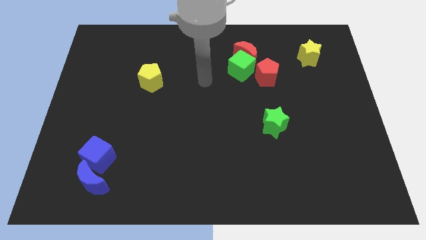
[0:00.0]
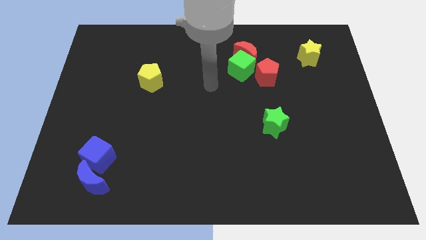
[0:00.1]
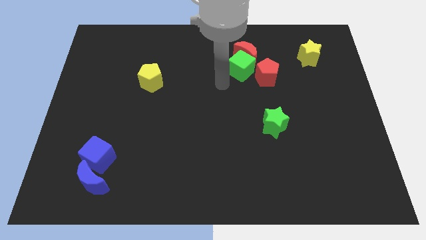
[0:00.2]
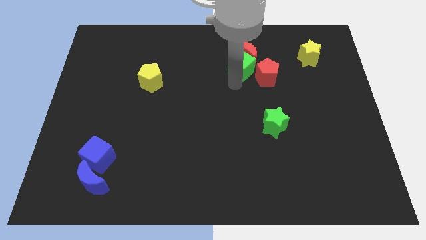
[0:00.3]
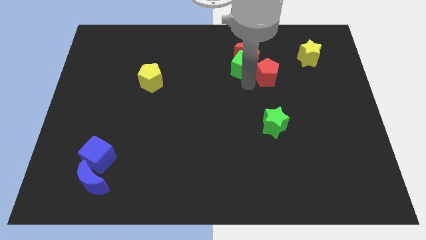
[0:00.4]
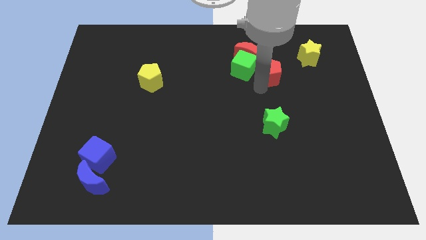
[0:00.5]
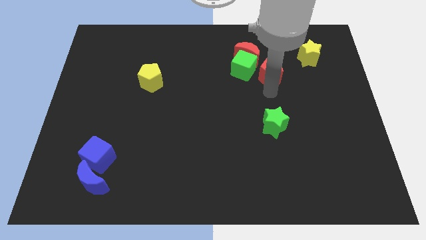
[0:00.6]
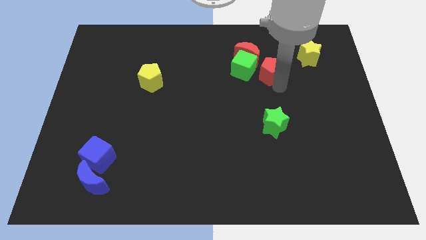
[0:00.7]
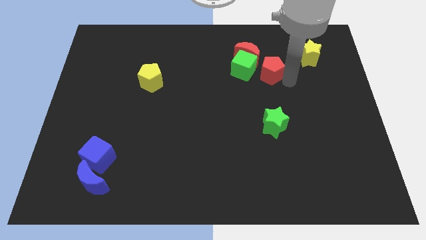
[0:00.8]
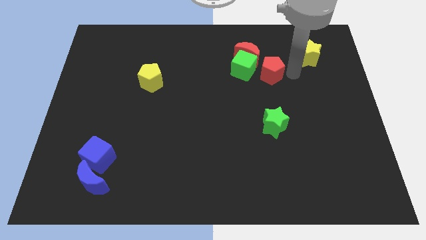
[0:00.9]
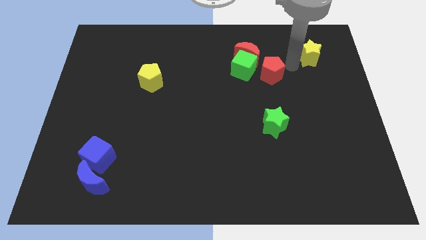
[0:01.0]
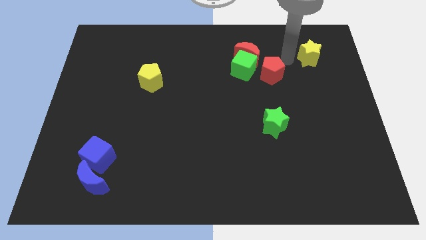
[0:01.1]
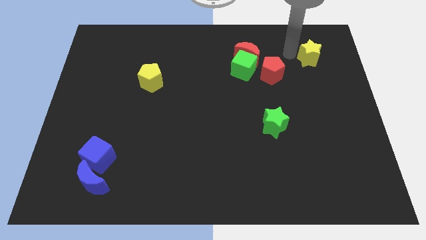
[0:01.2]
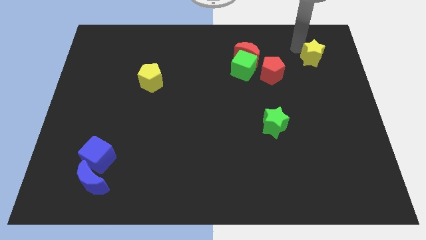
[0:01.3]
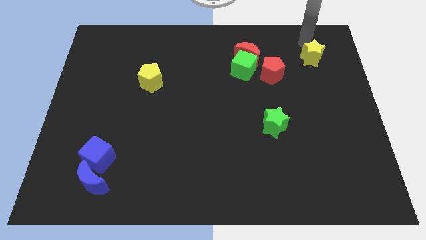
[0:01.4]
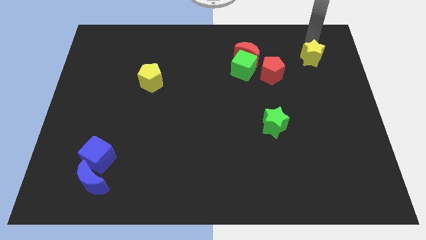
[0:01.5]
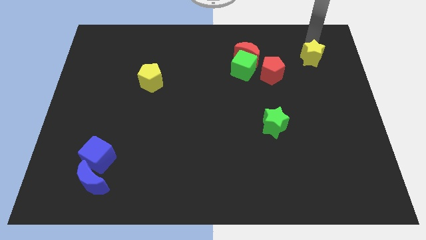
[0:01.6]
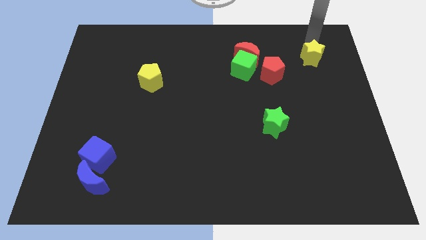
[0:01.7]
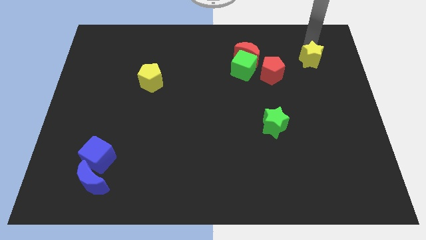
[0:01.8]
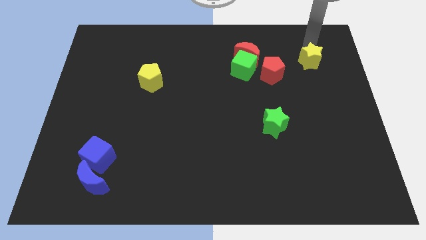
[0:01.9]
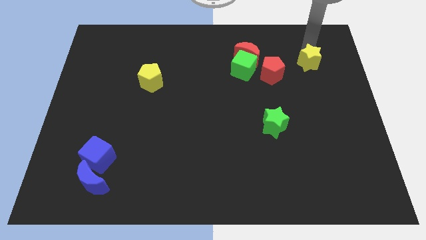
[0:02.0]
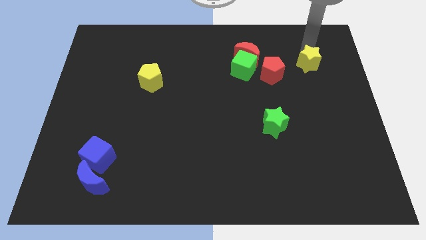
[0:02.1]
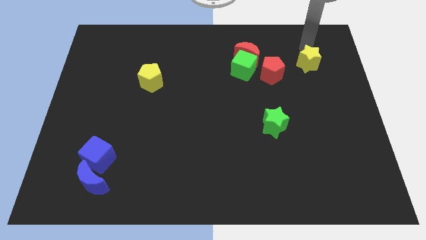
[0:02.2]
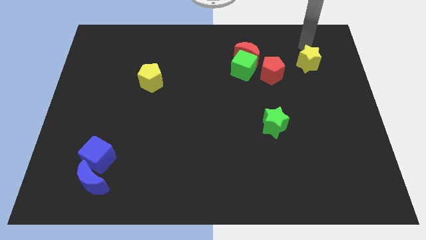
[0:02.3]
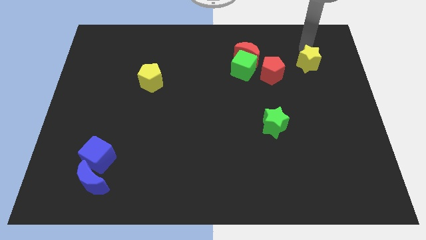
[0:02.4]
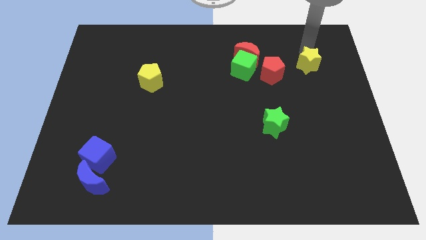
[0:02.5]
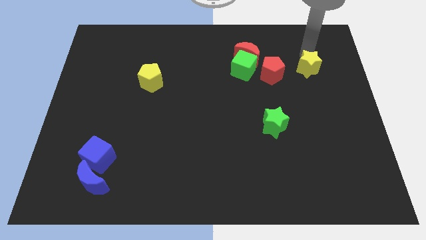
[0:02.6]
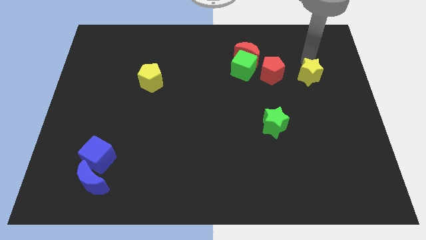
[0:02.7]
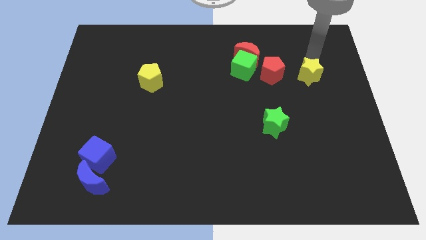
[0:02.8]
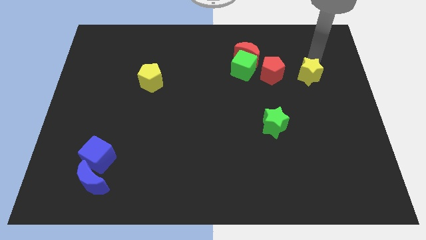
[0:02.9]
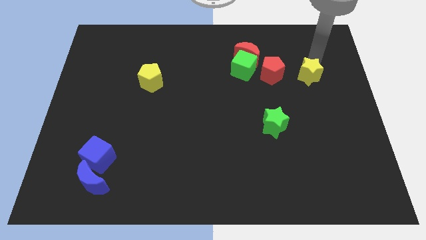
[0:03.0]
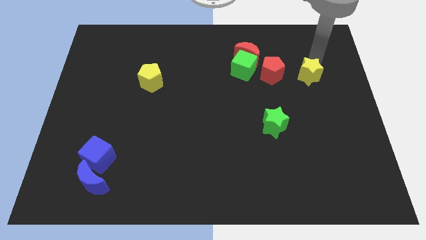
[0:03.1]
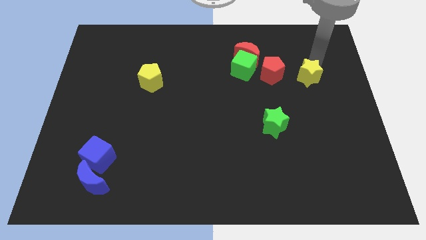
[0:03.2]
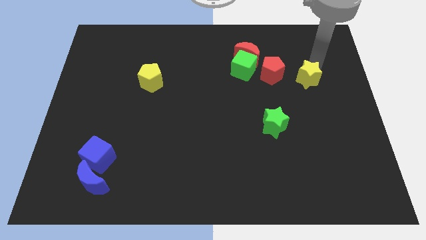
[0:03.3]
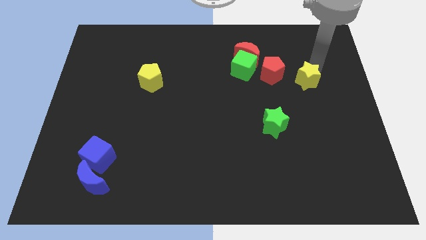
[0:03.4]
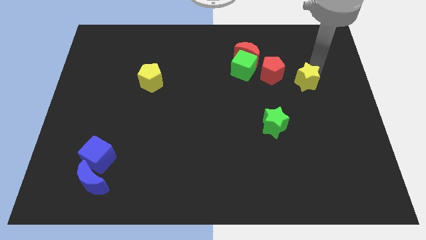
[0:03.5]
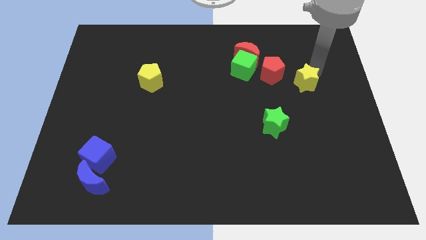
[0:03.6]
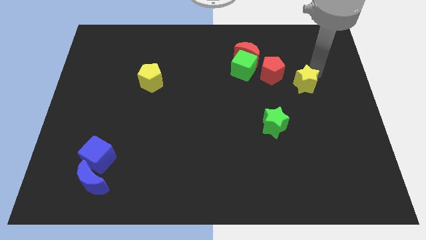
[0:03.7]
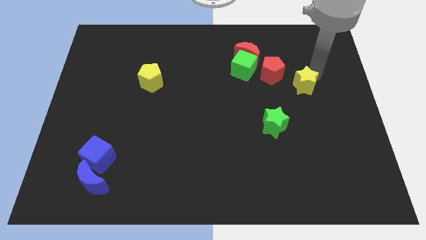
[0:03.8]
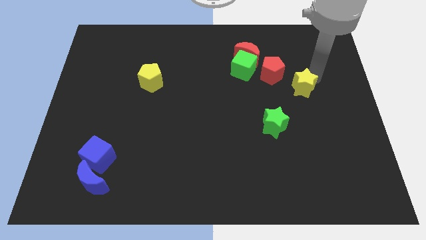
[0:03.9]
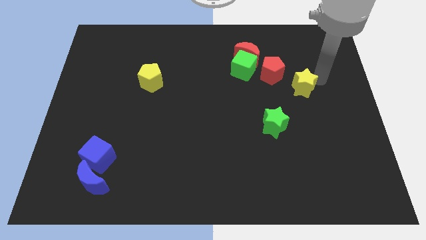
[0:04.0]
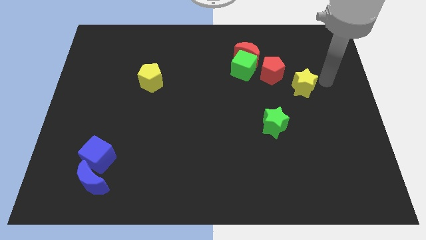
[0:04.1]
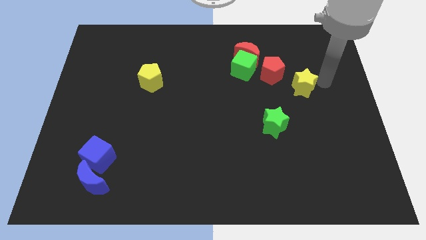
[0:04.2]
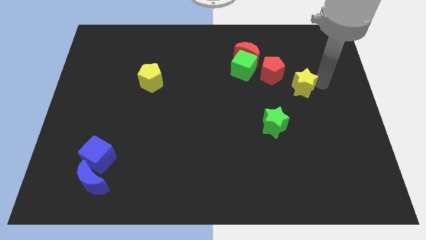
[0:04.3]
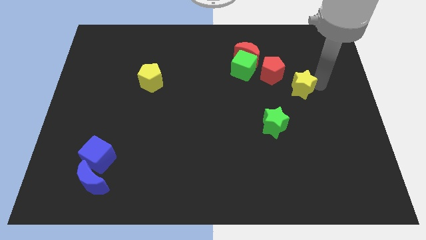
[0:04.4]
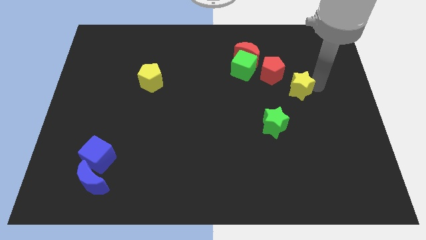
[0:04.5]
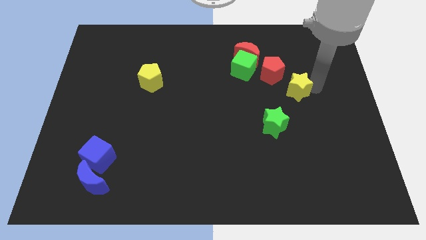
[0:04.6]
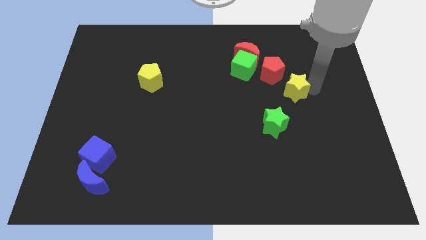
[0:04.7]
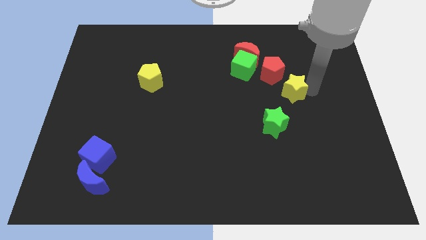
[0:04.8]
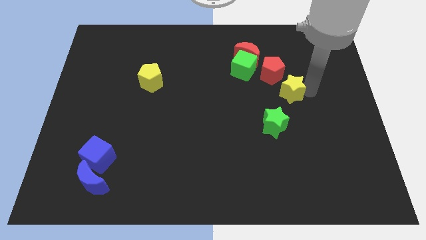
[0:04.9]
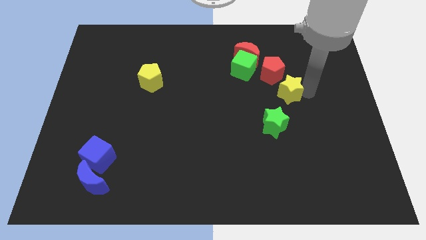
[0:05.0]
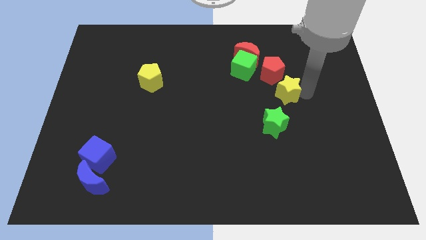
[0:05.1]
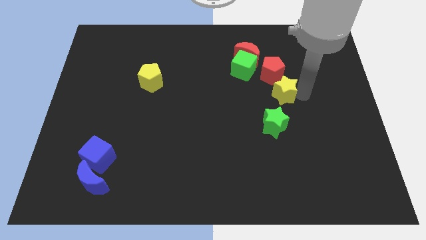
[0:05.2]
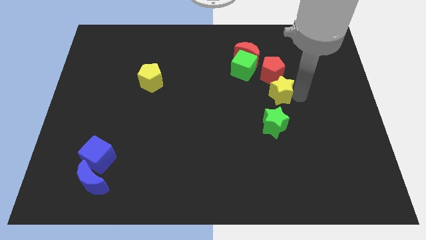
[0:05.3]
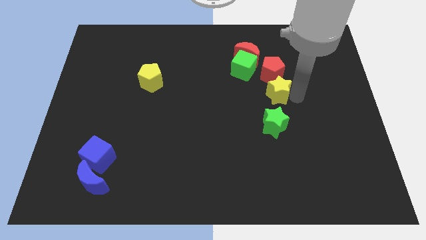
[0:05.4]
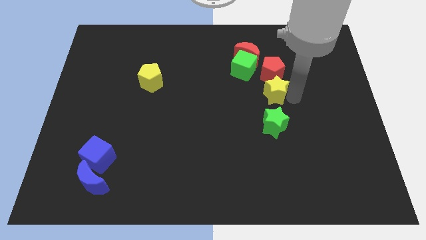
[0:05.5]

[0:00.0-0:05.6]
put the yellow star to the bottom left of the red pentagon

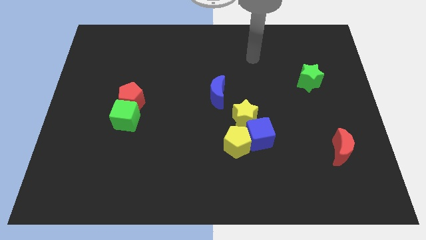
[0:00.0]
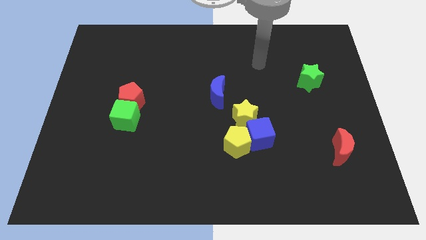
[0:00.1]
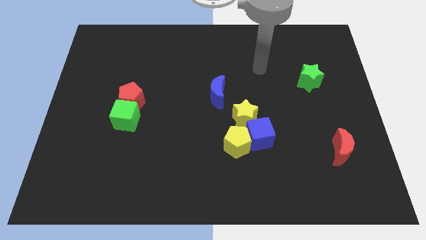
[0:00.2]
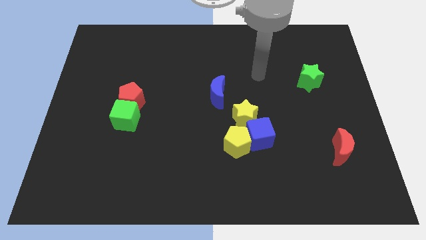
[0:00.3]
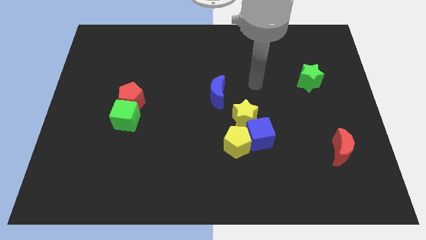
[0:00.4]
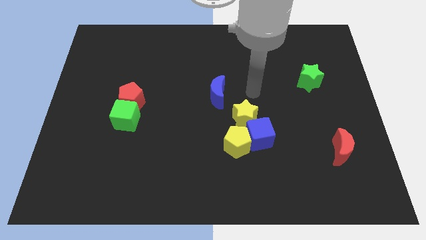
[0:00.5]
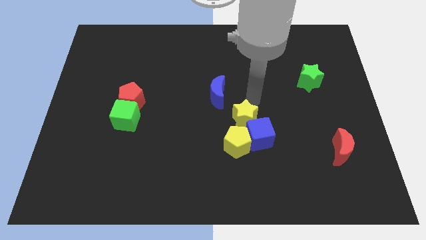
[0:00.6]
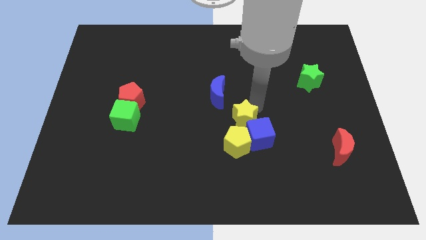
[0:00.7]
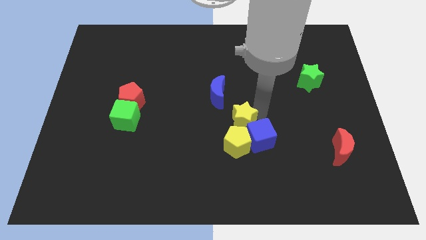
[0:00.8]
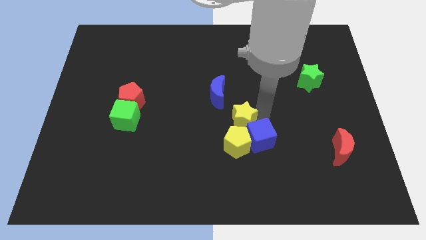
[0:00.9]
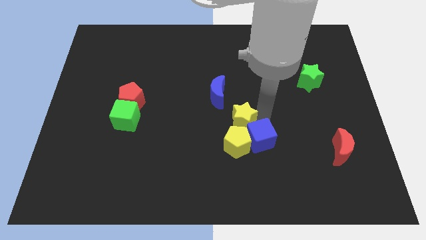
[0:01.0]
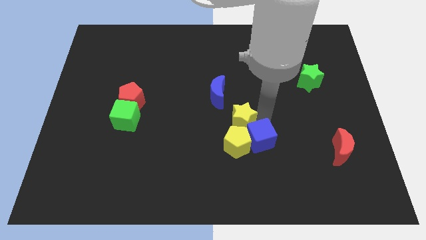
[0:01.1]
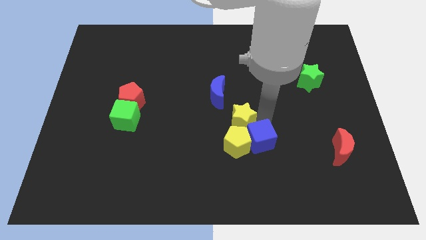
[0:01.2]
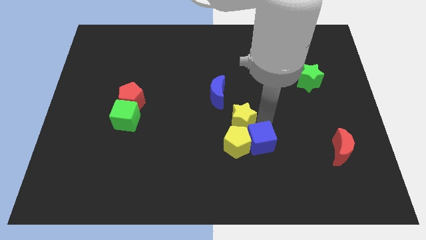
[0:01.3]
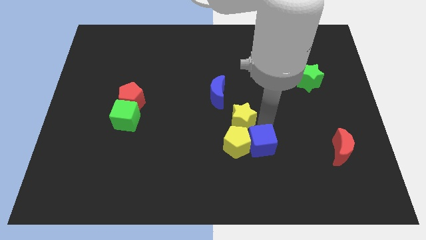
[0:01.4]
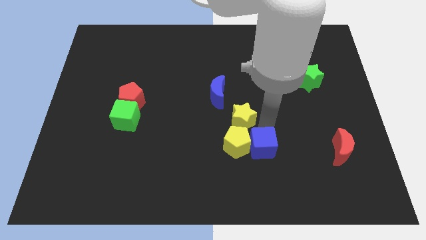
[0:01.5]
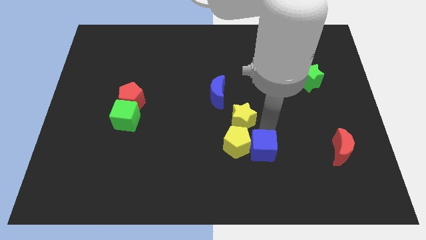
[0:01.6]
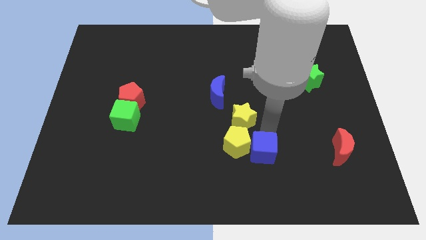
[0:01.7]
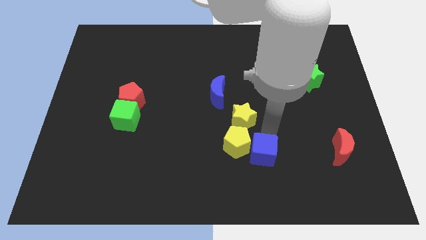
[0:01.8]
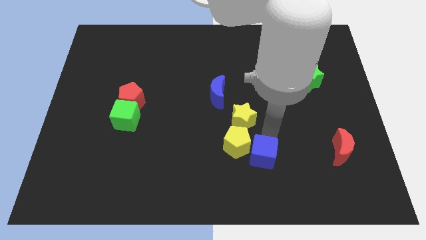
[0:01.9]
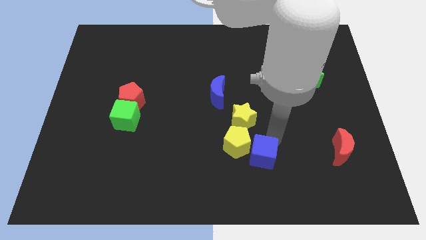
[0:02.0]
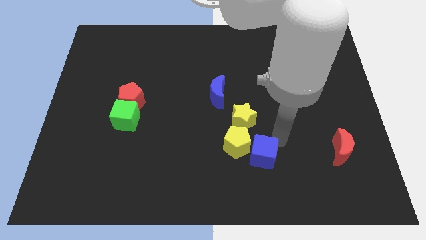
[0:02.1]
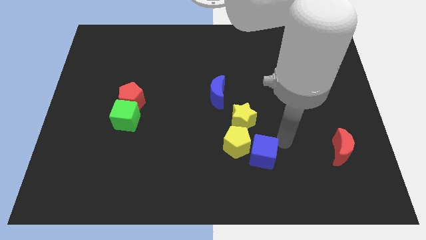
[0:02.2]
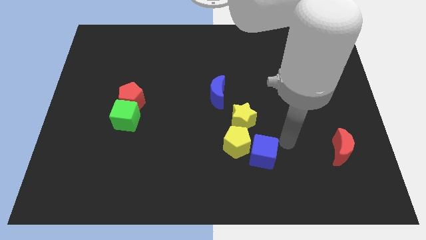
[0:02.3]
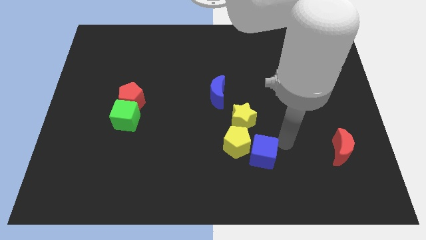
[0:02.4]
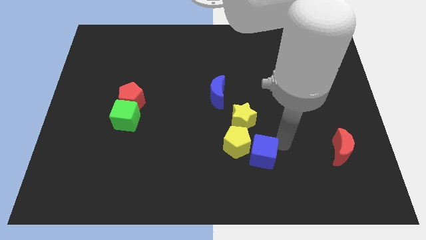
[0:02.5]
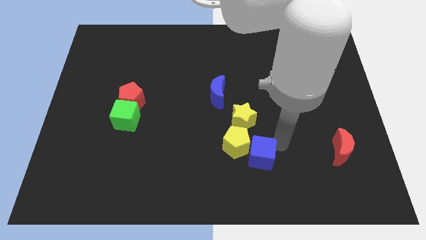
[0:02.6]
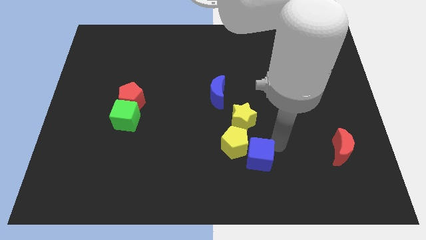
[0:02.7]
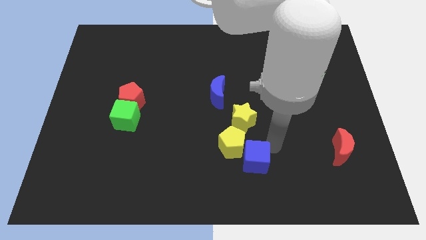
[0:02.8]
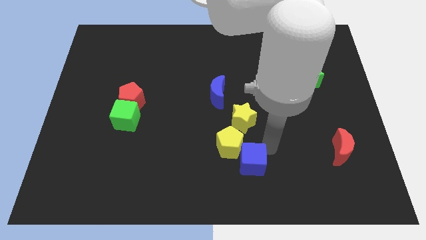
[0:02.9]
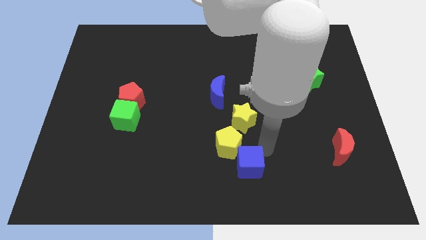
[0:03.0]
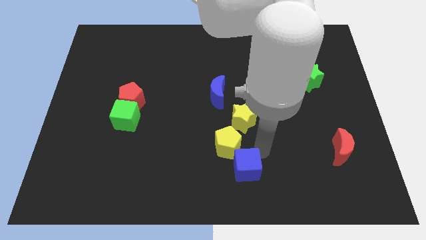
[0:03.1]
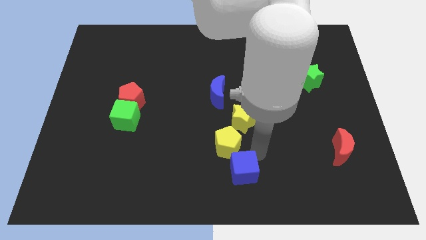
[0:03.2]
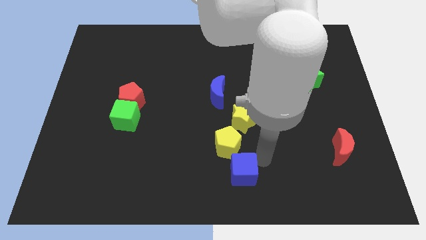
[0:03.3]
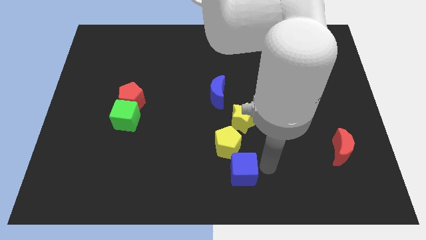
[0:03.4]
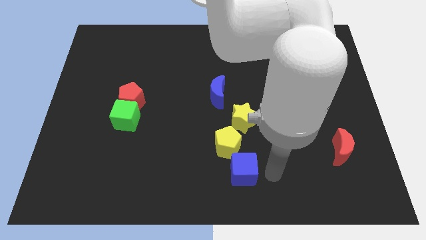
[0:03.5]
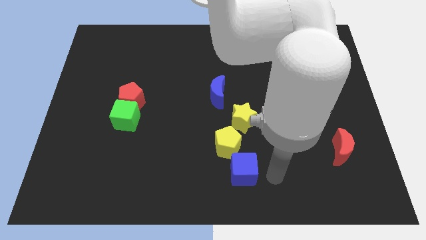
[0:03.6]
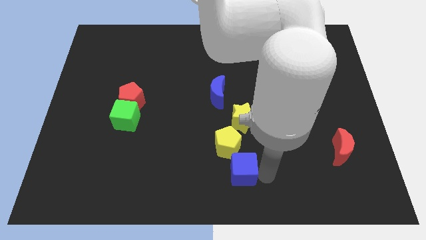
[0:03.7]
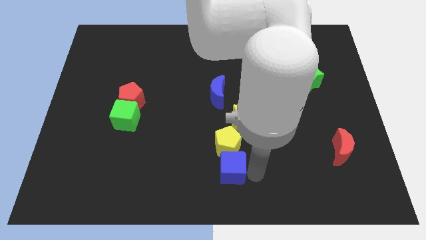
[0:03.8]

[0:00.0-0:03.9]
put the blue cube to the bottom left of the yellow pentagon
